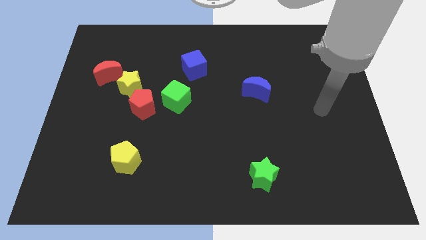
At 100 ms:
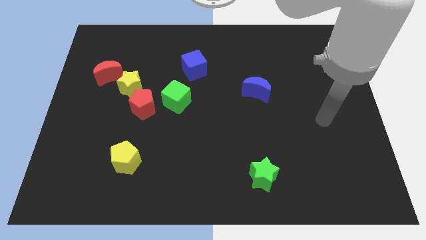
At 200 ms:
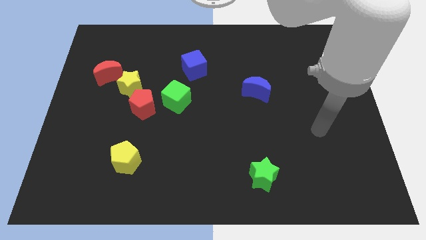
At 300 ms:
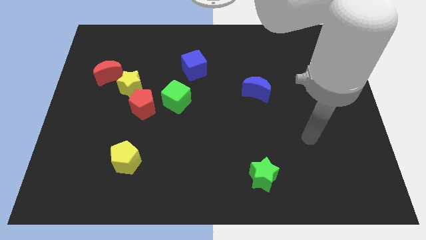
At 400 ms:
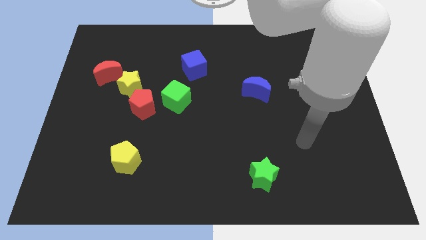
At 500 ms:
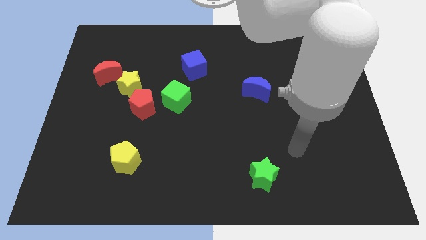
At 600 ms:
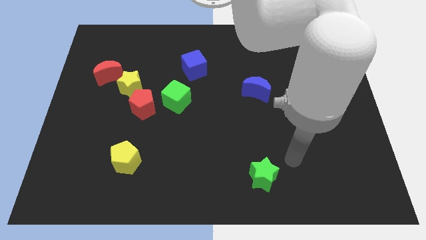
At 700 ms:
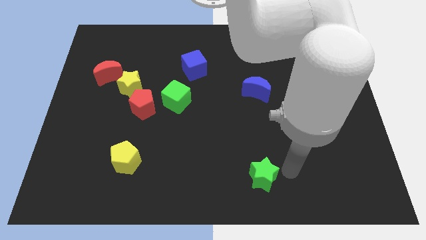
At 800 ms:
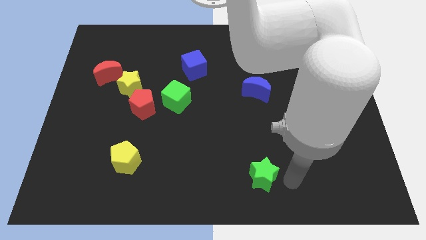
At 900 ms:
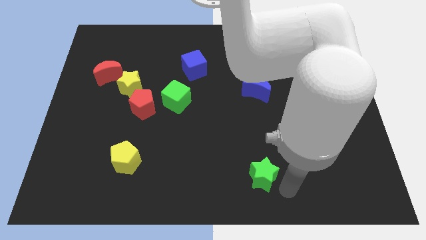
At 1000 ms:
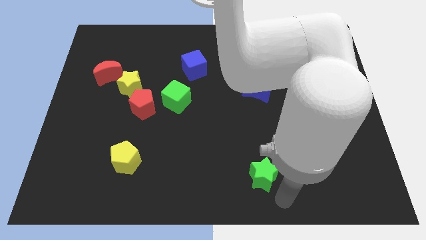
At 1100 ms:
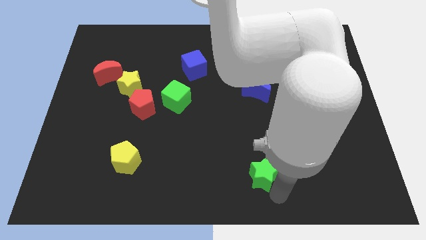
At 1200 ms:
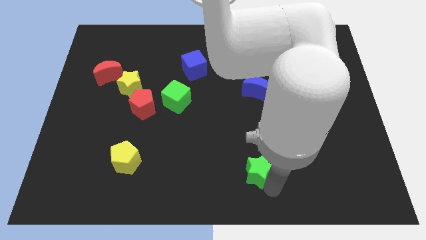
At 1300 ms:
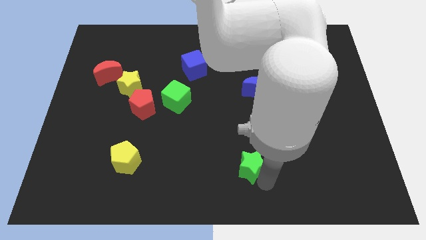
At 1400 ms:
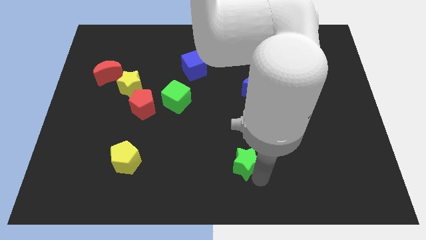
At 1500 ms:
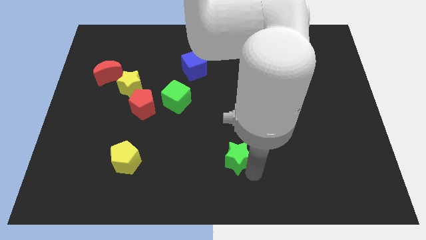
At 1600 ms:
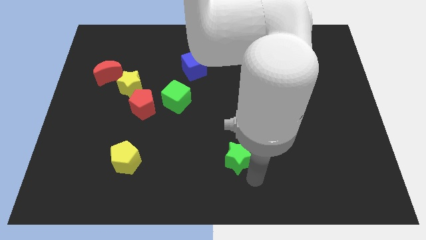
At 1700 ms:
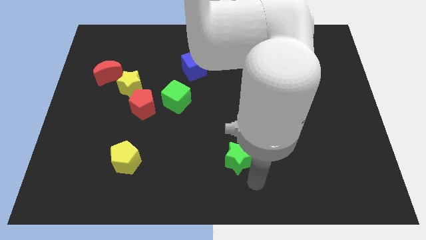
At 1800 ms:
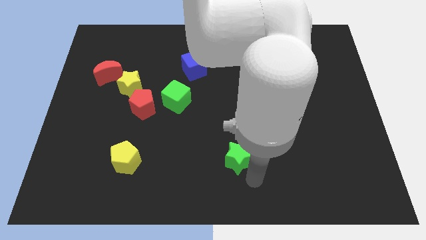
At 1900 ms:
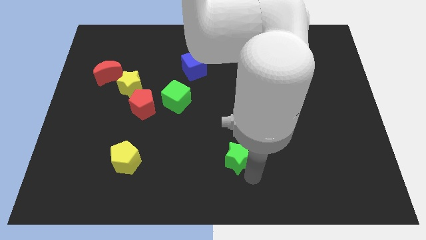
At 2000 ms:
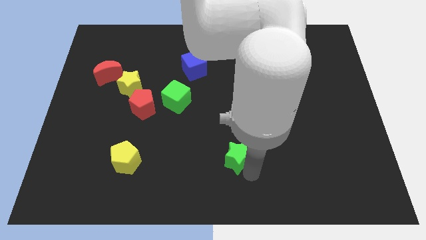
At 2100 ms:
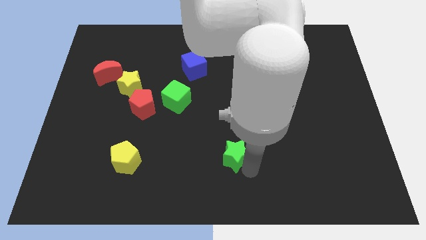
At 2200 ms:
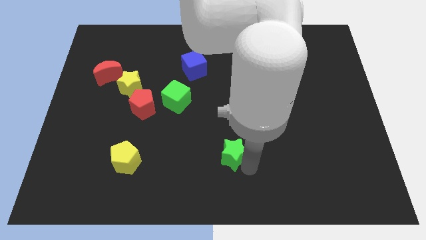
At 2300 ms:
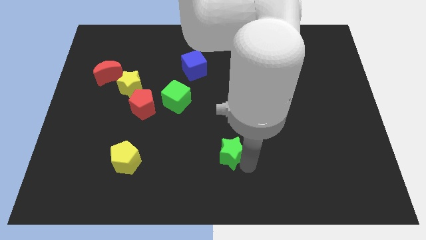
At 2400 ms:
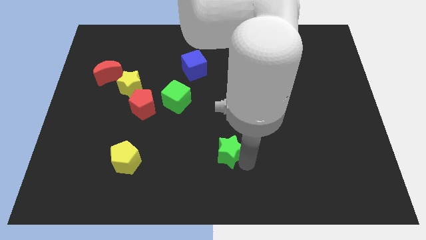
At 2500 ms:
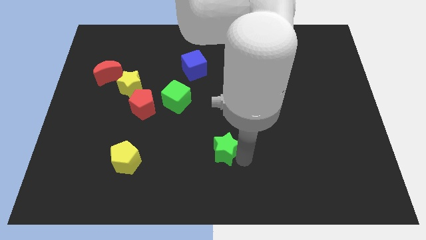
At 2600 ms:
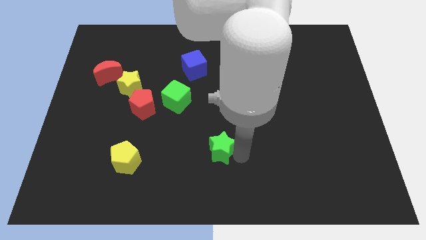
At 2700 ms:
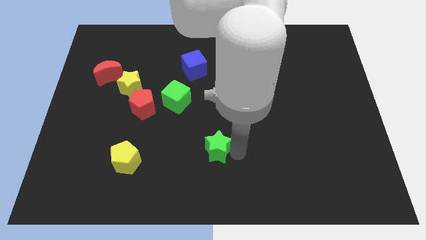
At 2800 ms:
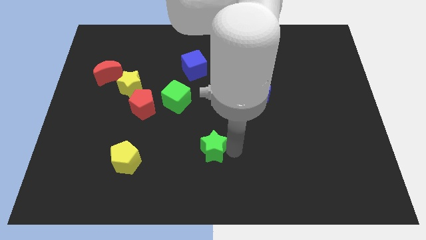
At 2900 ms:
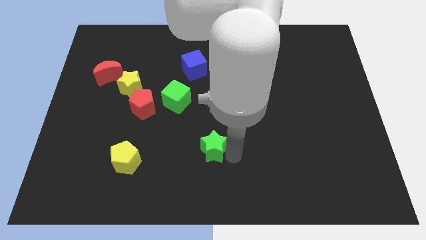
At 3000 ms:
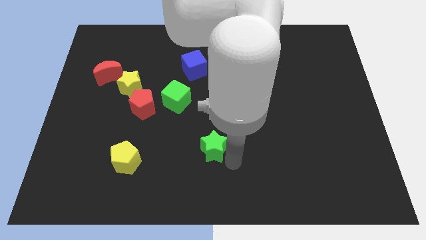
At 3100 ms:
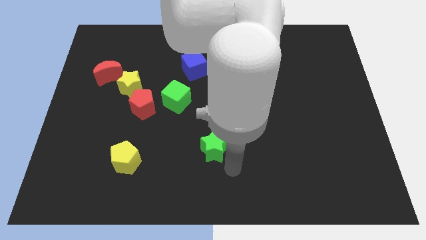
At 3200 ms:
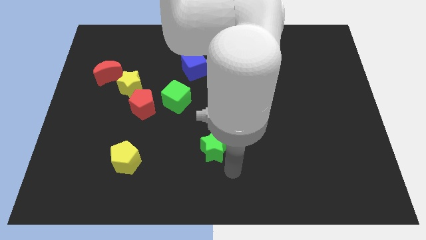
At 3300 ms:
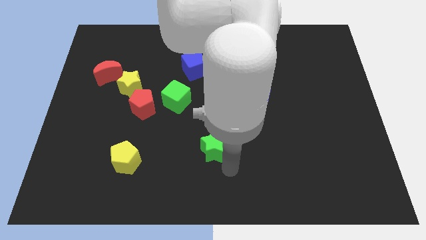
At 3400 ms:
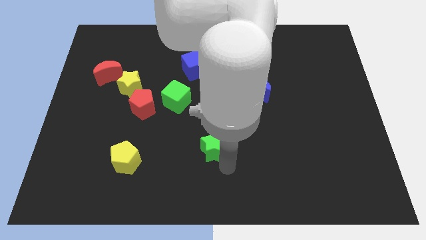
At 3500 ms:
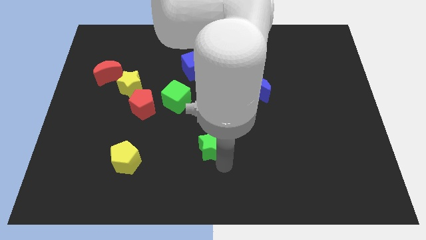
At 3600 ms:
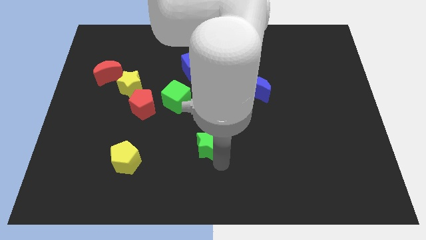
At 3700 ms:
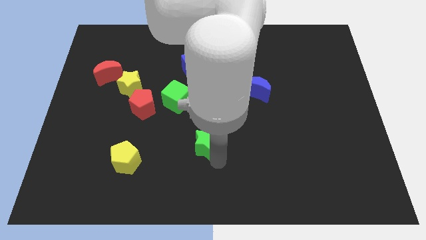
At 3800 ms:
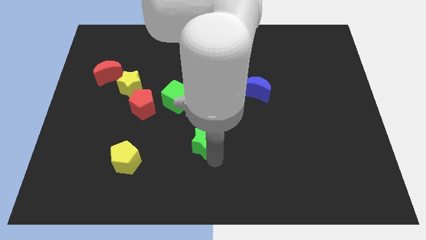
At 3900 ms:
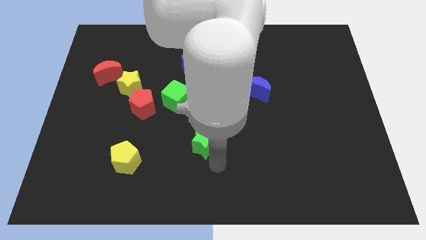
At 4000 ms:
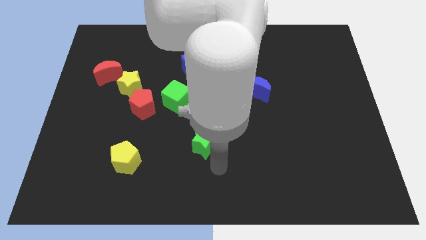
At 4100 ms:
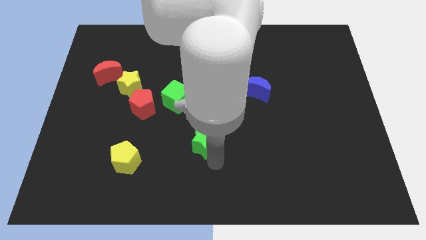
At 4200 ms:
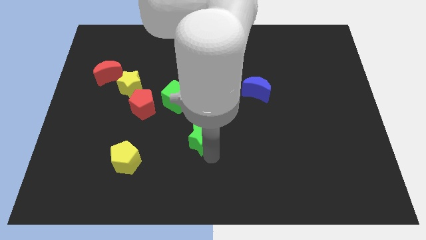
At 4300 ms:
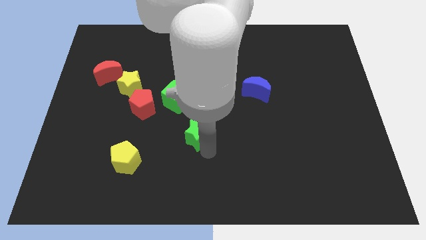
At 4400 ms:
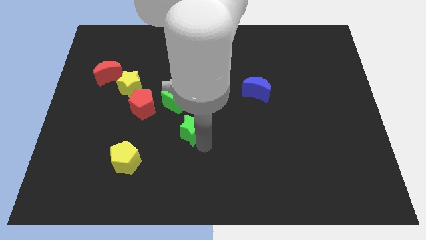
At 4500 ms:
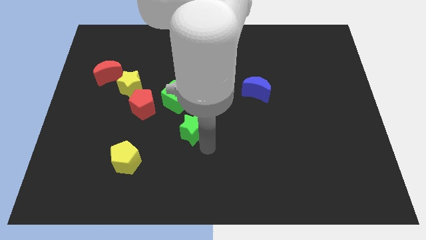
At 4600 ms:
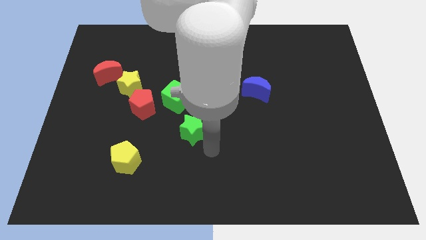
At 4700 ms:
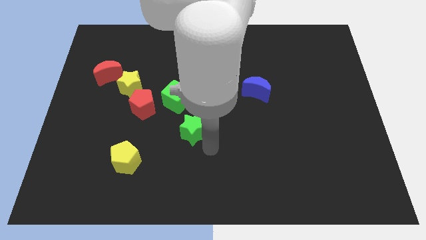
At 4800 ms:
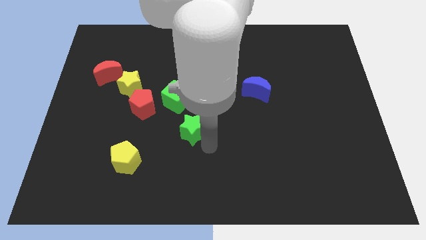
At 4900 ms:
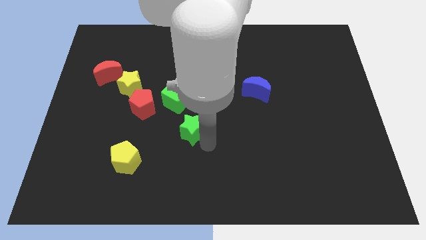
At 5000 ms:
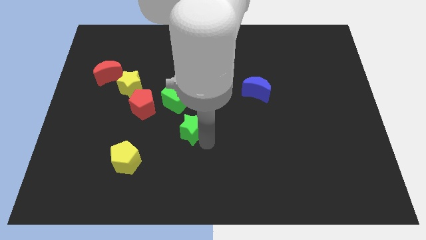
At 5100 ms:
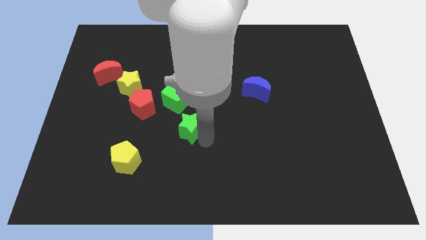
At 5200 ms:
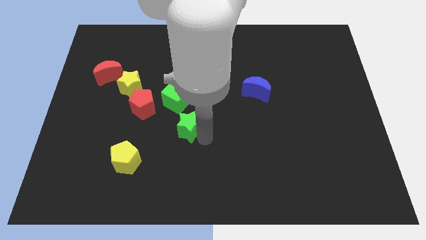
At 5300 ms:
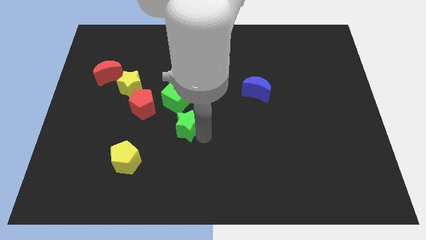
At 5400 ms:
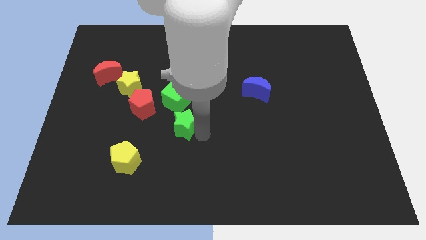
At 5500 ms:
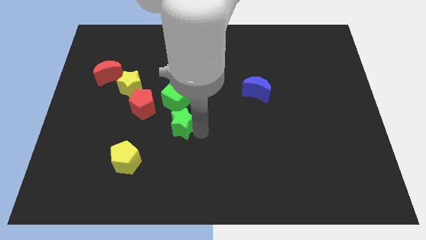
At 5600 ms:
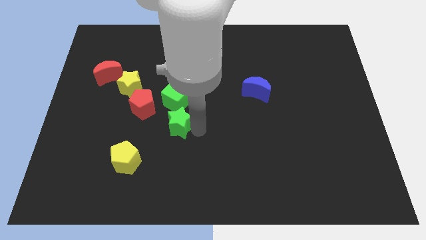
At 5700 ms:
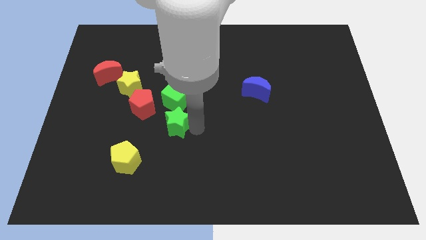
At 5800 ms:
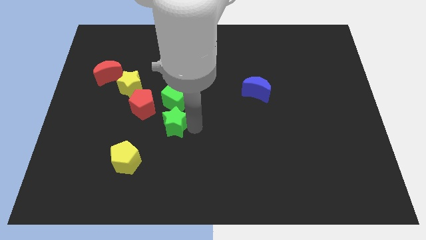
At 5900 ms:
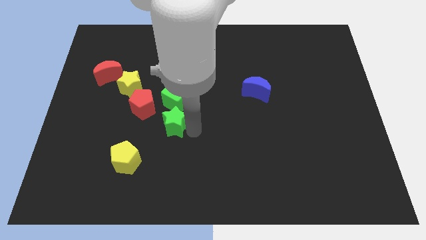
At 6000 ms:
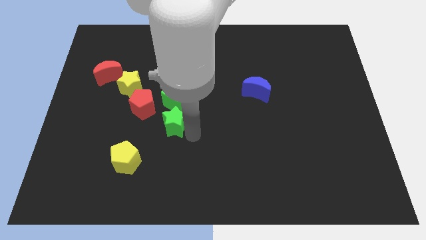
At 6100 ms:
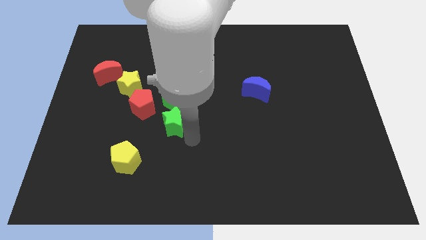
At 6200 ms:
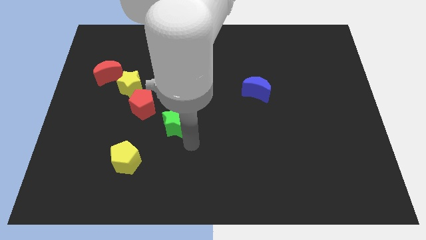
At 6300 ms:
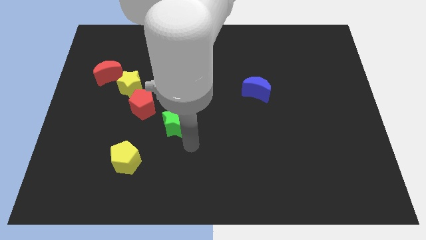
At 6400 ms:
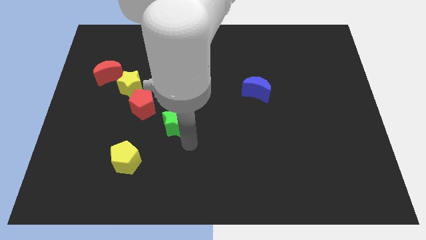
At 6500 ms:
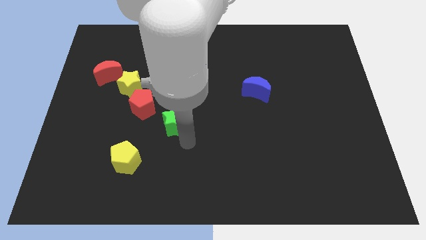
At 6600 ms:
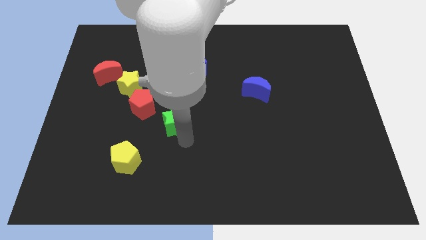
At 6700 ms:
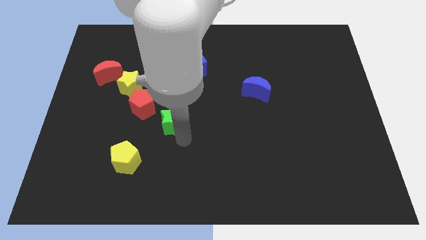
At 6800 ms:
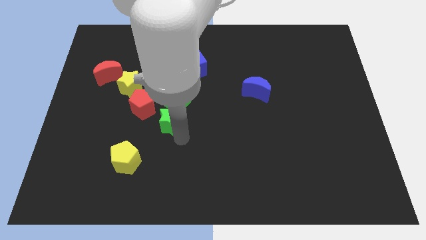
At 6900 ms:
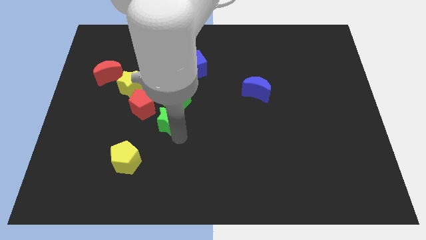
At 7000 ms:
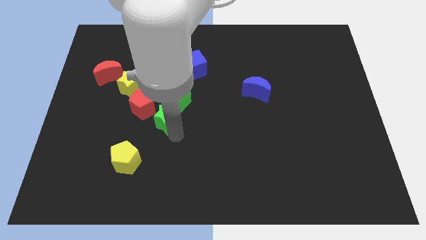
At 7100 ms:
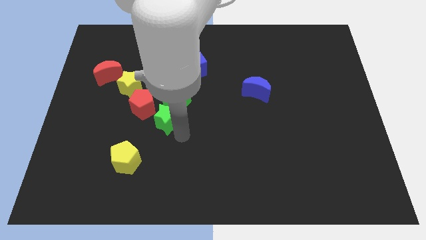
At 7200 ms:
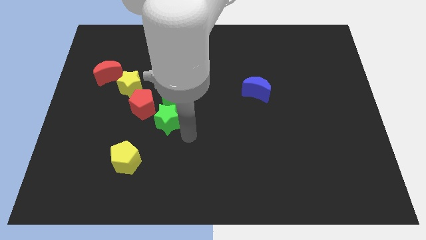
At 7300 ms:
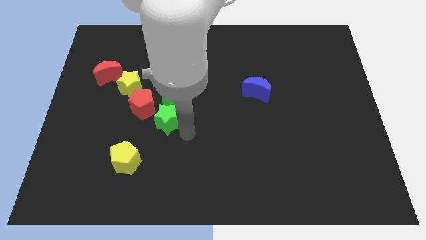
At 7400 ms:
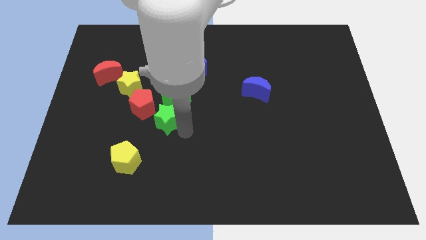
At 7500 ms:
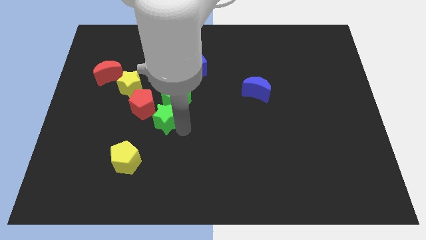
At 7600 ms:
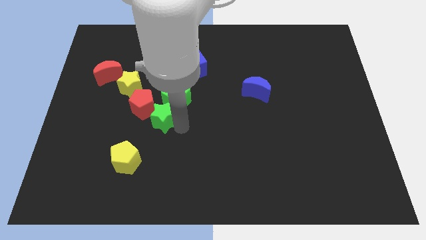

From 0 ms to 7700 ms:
push the green star to the red pentagon
